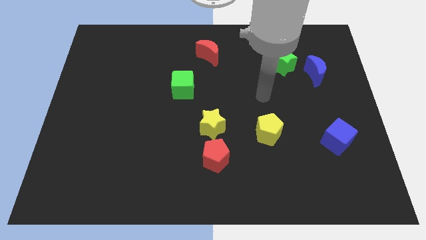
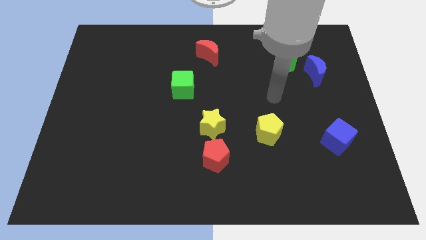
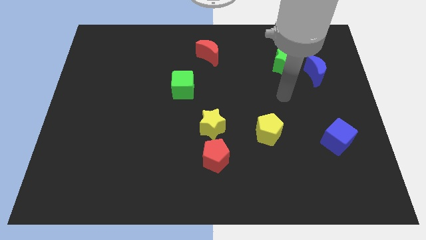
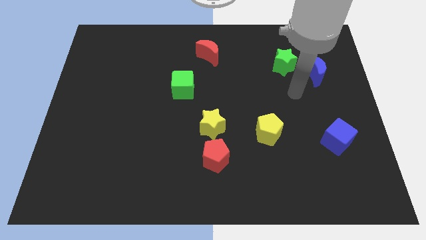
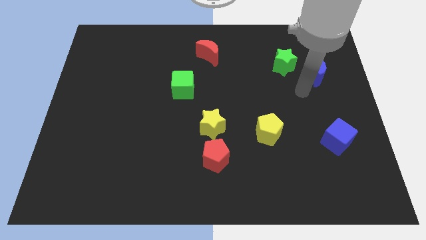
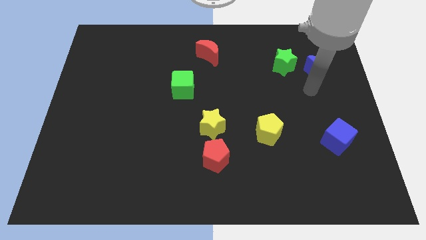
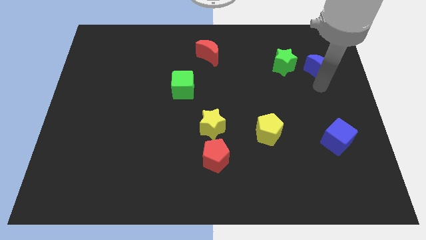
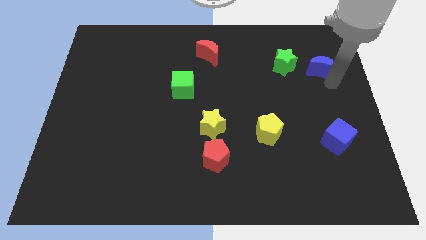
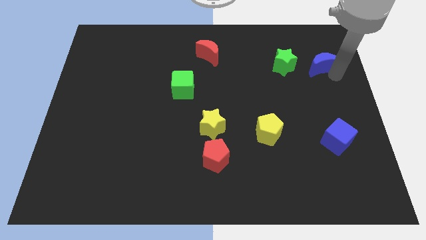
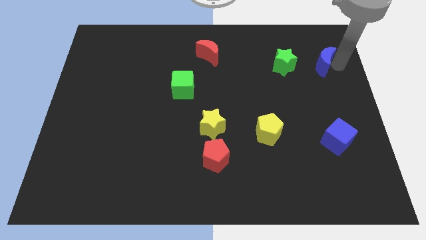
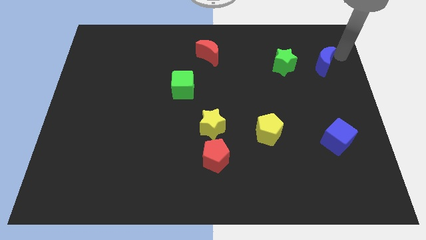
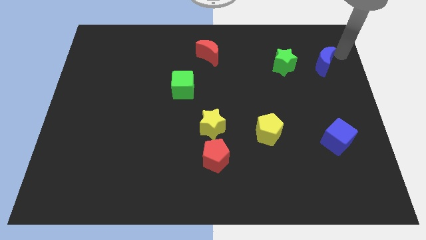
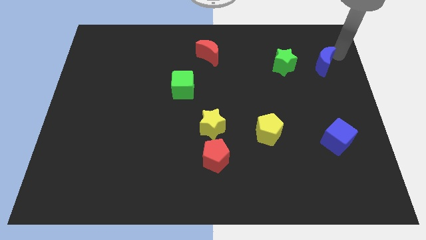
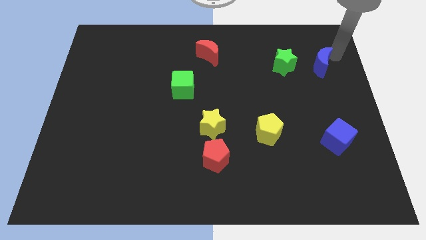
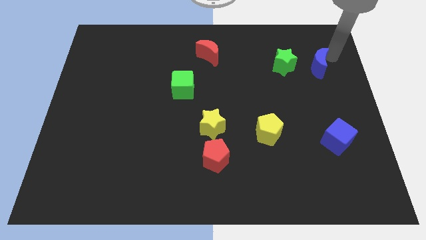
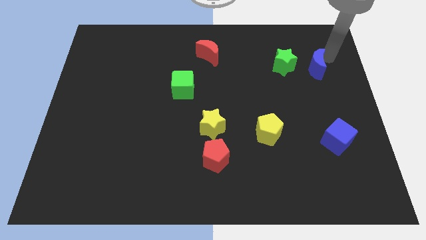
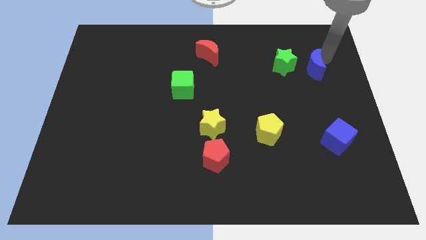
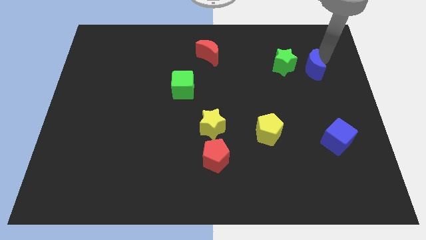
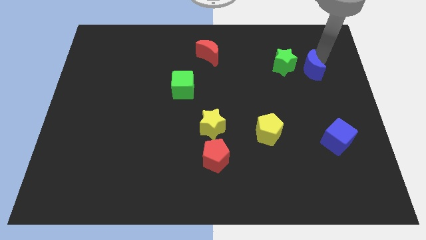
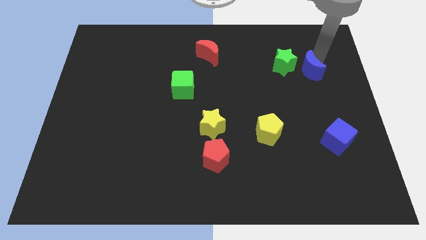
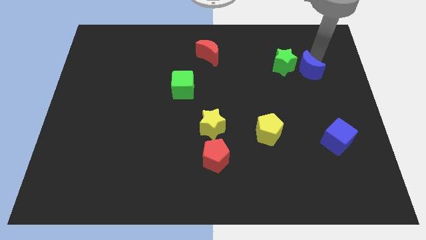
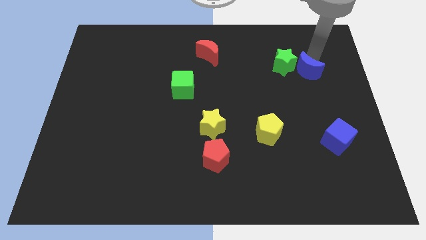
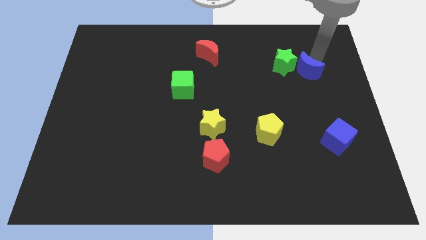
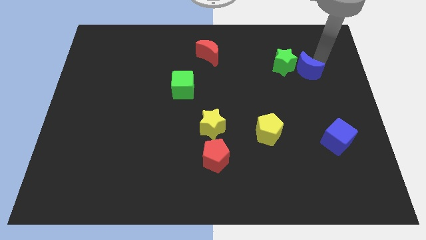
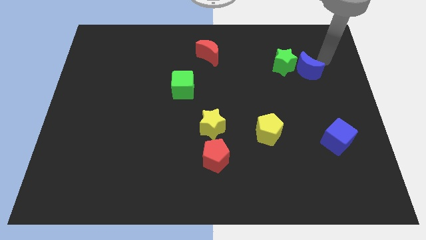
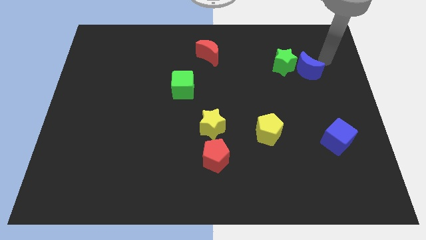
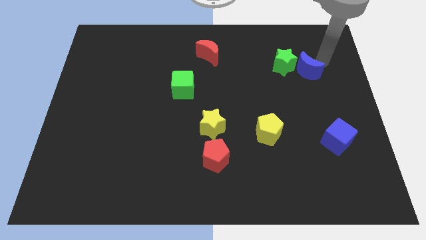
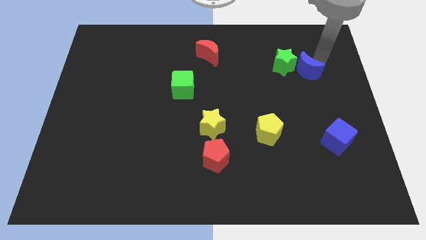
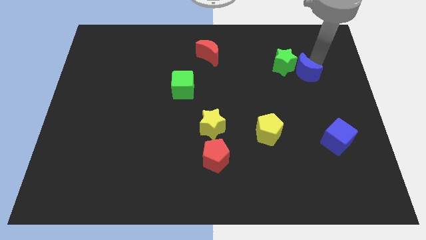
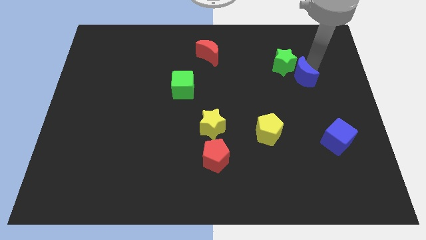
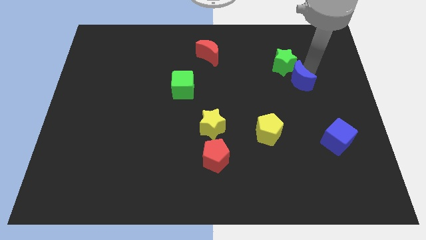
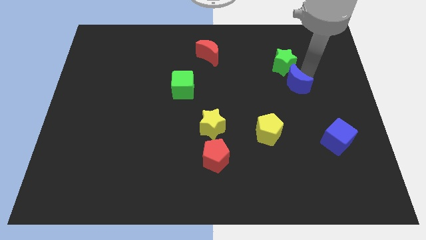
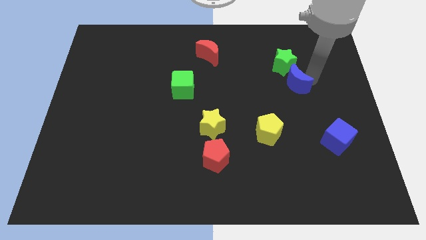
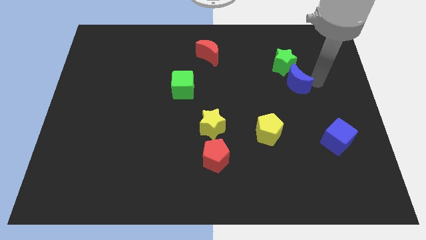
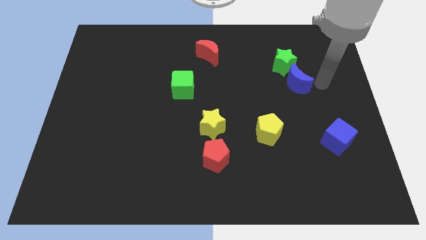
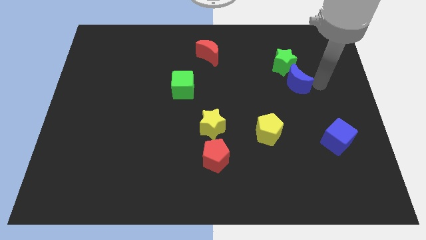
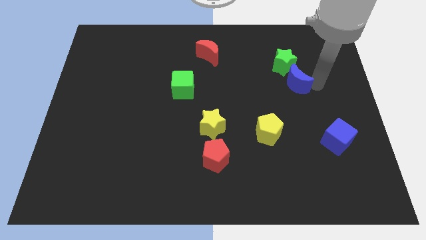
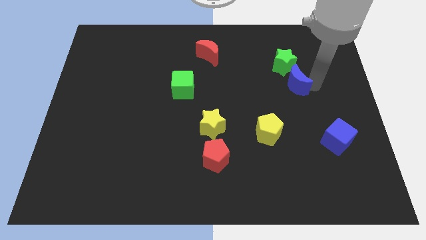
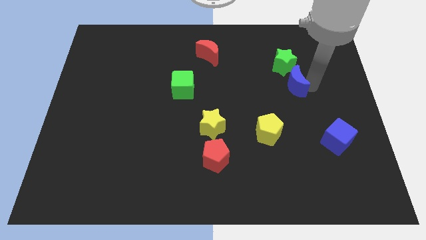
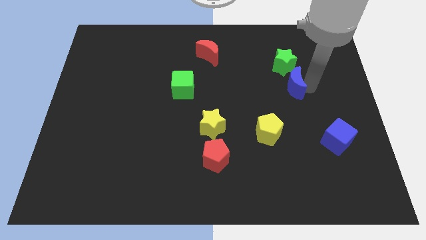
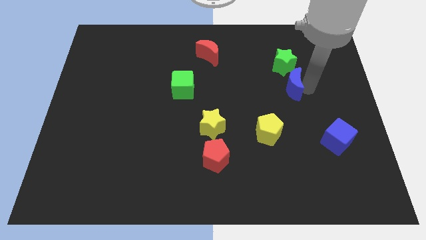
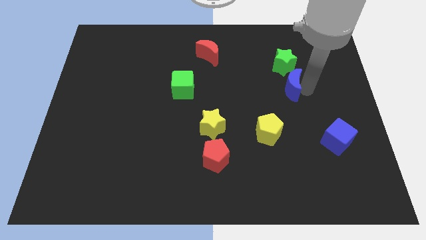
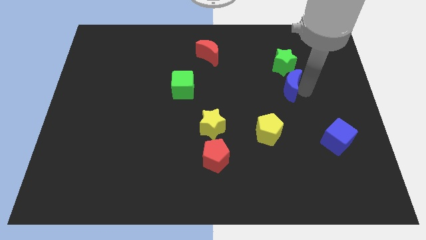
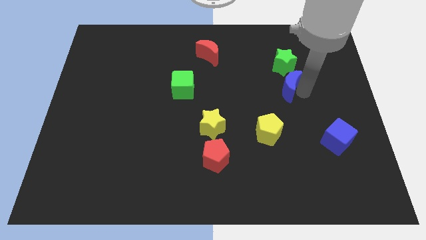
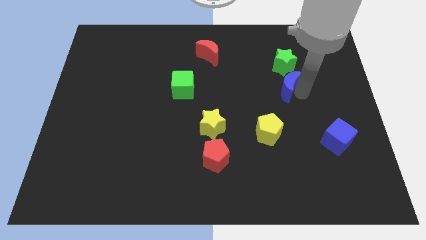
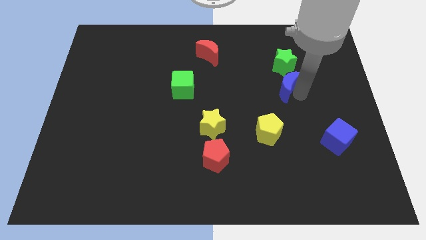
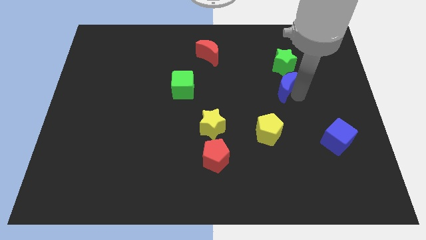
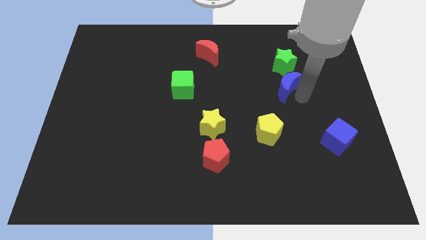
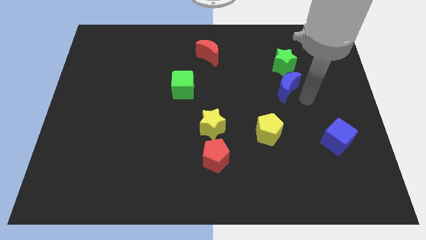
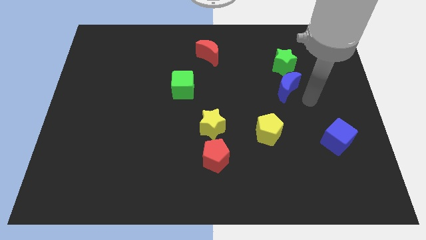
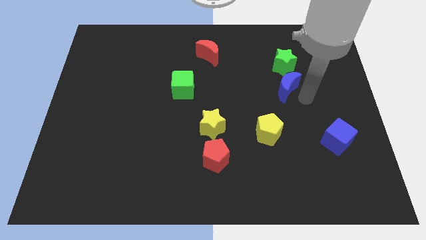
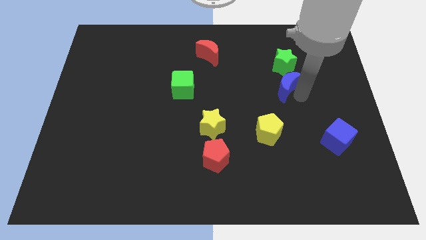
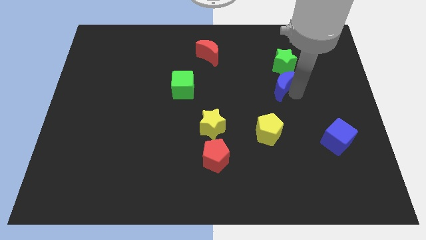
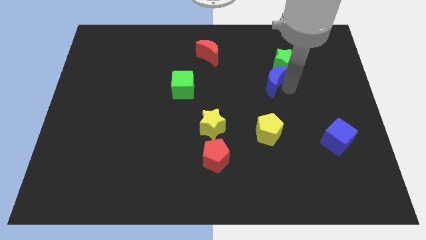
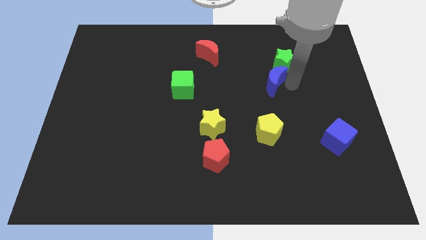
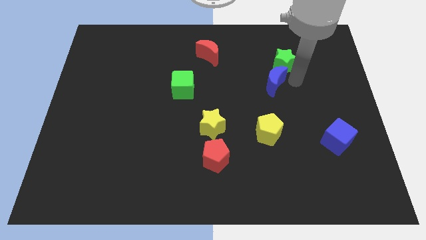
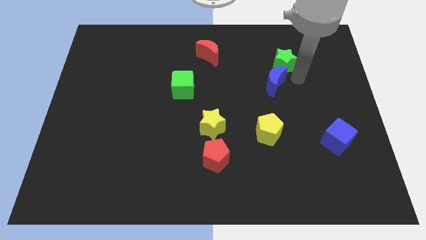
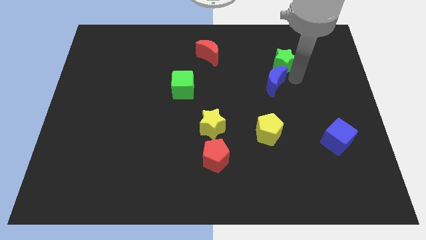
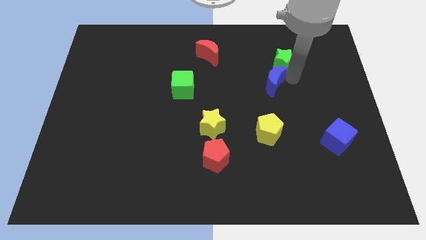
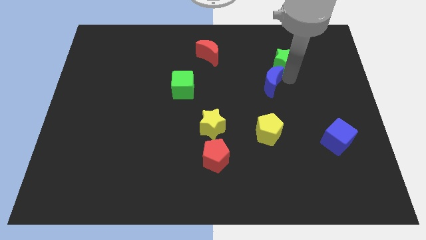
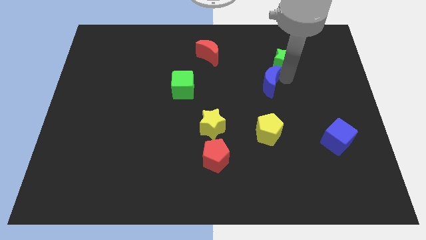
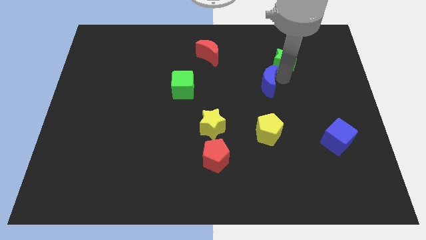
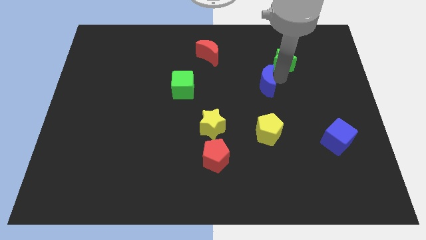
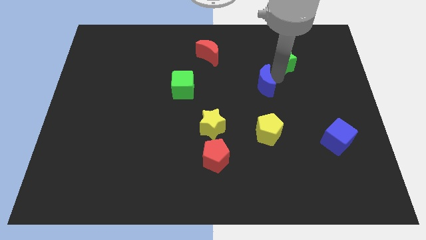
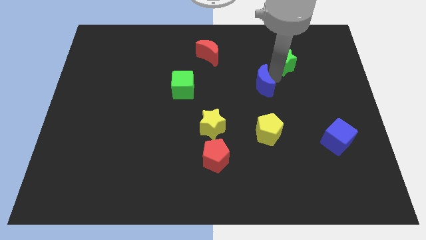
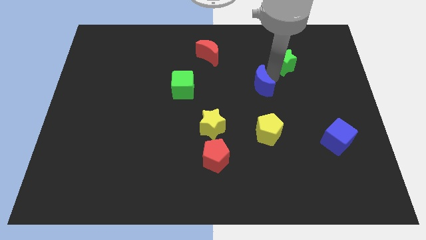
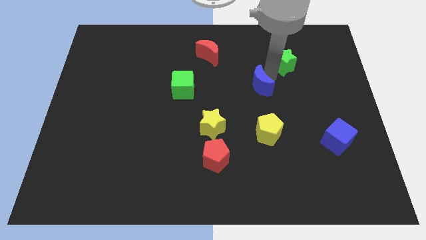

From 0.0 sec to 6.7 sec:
move the blue moon to the middle of the board
